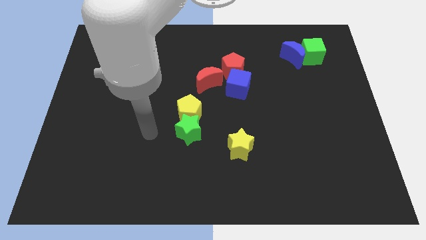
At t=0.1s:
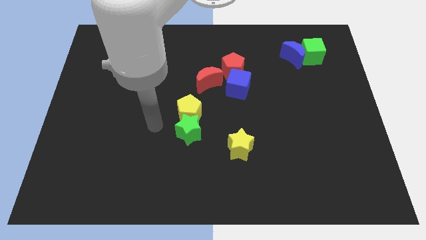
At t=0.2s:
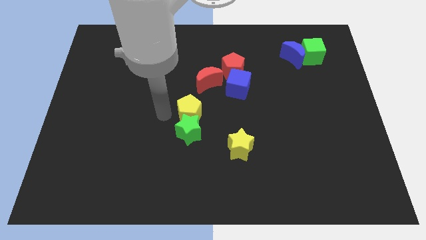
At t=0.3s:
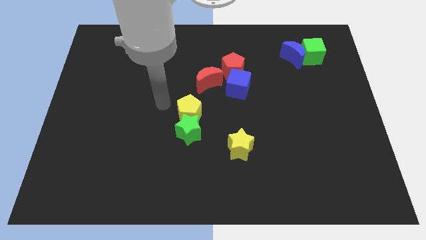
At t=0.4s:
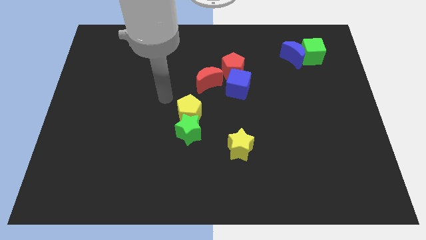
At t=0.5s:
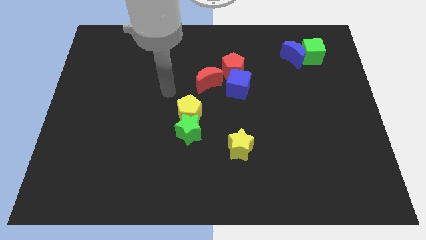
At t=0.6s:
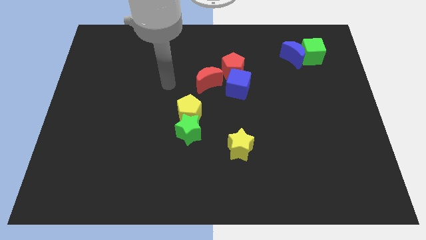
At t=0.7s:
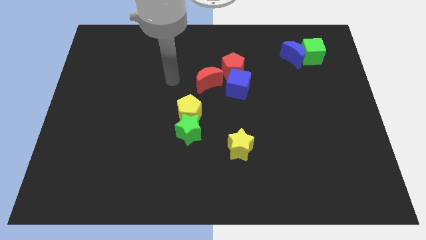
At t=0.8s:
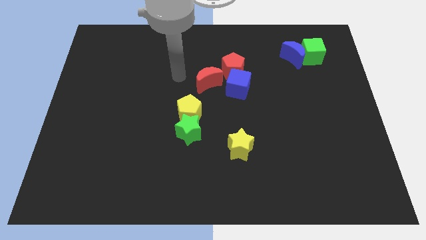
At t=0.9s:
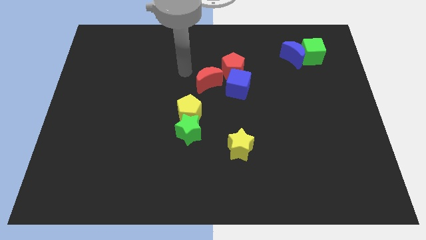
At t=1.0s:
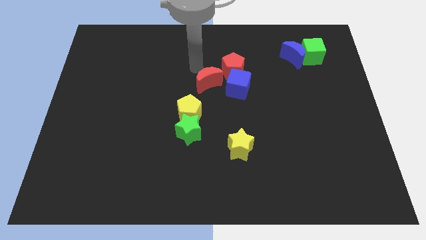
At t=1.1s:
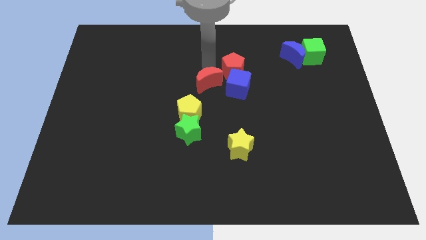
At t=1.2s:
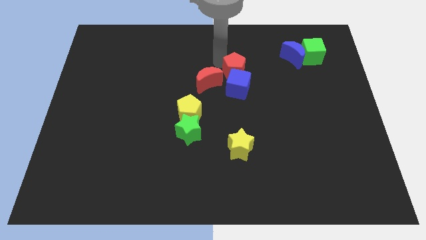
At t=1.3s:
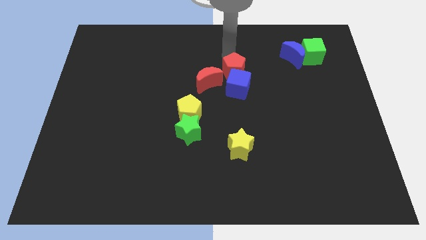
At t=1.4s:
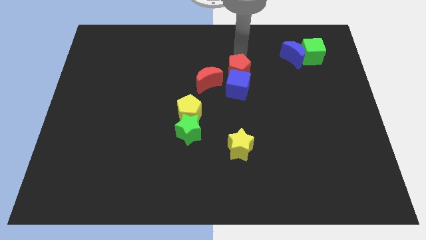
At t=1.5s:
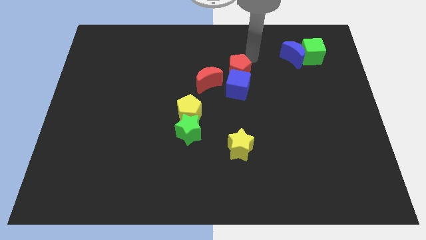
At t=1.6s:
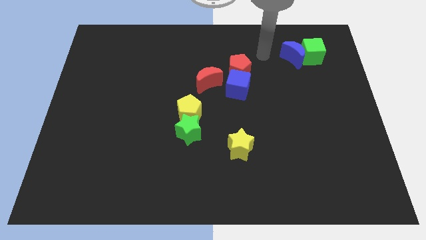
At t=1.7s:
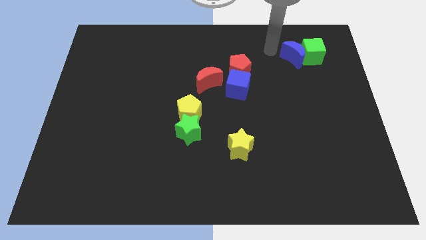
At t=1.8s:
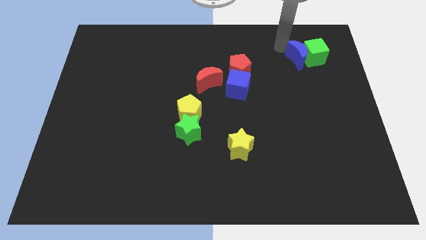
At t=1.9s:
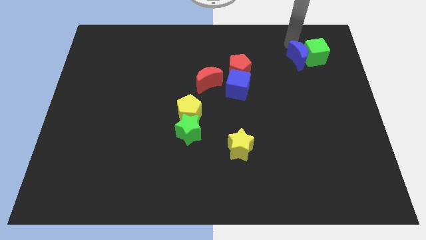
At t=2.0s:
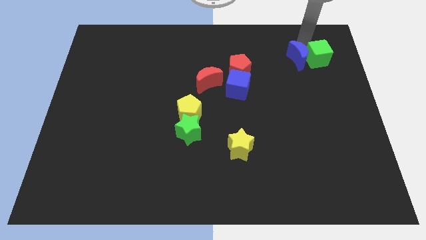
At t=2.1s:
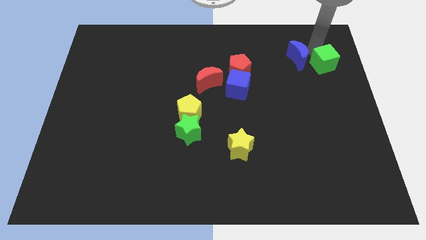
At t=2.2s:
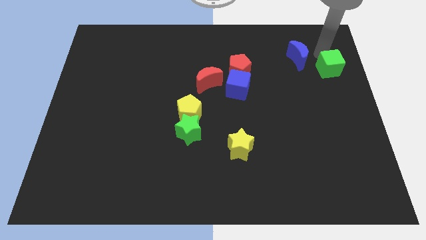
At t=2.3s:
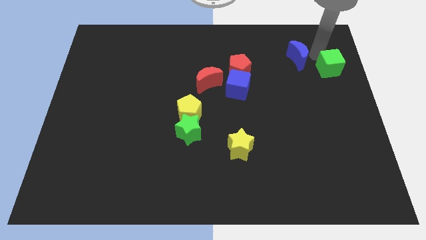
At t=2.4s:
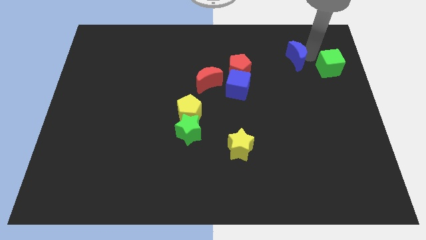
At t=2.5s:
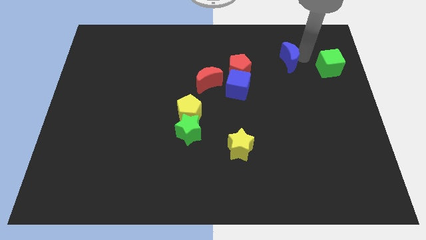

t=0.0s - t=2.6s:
move the blue moon away from the green cube

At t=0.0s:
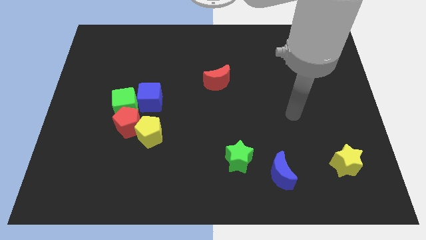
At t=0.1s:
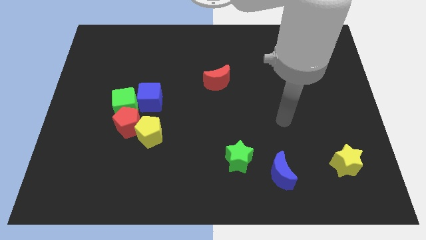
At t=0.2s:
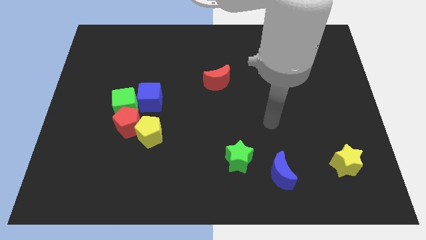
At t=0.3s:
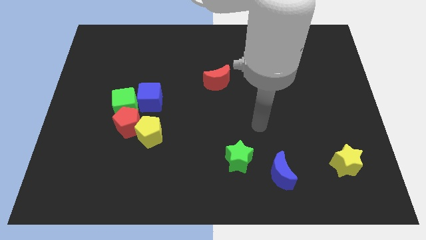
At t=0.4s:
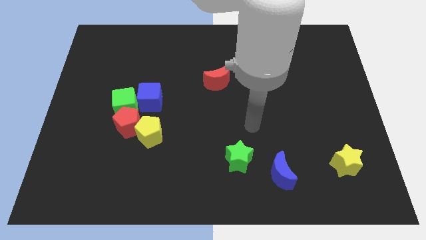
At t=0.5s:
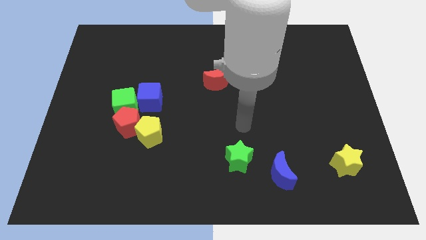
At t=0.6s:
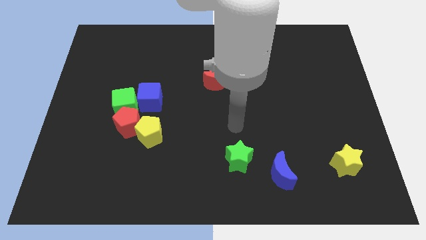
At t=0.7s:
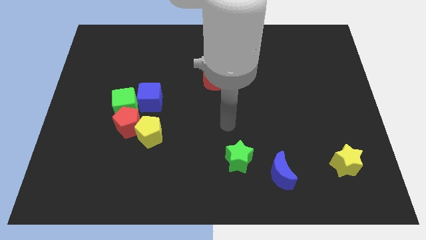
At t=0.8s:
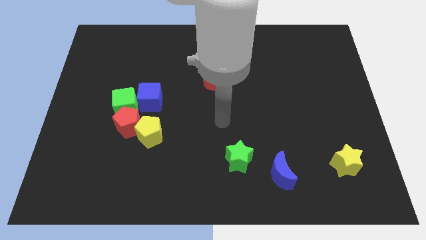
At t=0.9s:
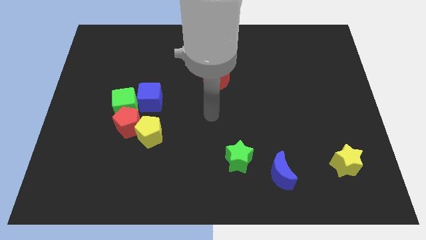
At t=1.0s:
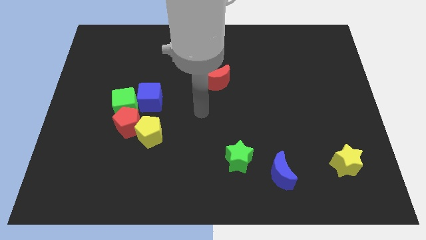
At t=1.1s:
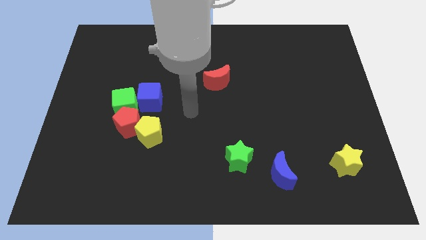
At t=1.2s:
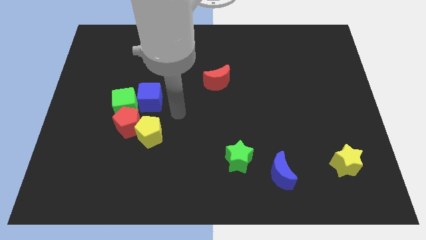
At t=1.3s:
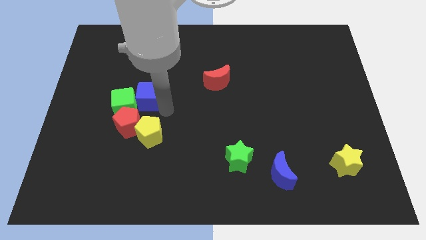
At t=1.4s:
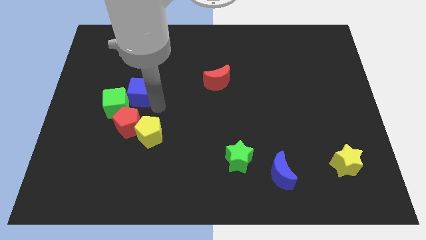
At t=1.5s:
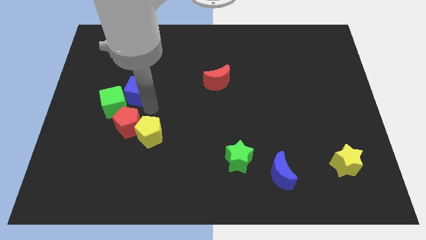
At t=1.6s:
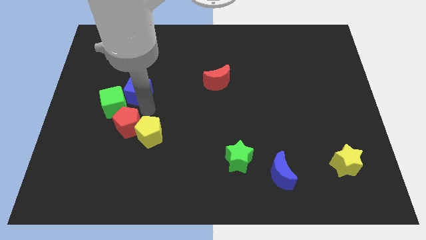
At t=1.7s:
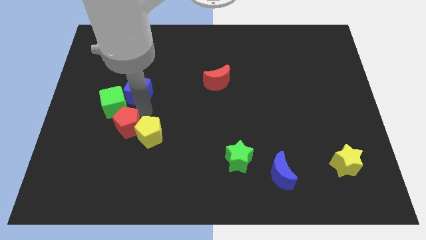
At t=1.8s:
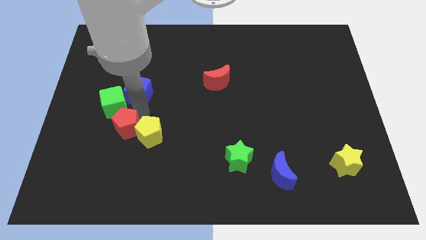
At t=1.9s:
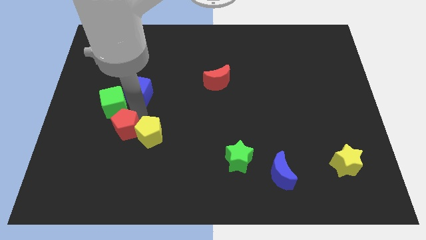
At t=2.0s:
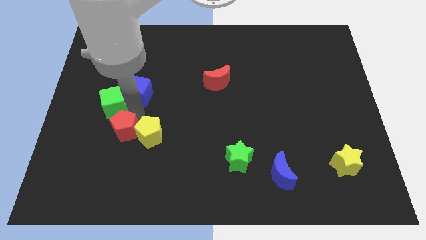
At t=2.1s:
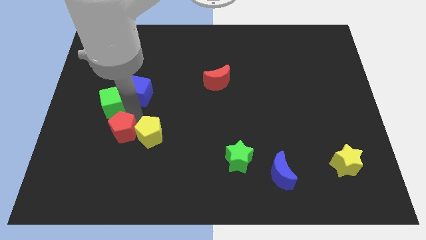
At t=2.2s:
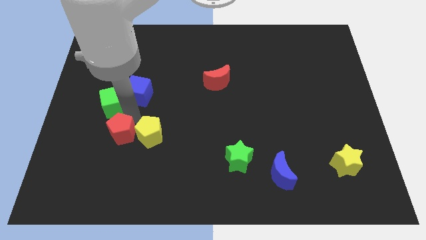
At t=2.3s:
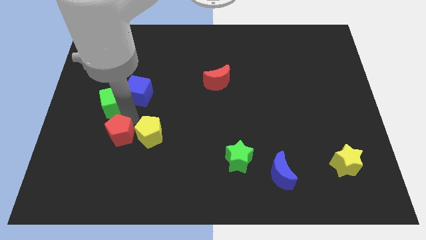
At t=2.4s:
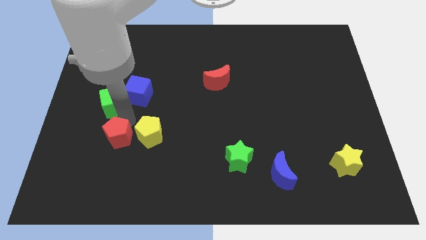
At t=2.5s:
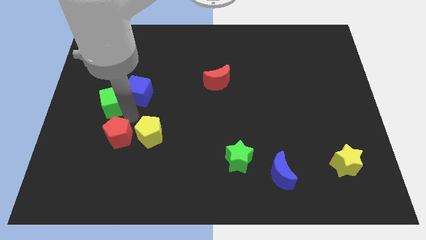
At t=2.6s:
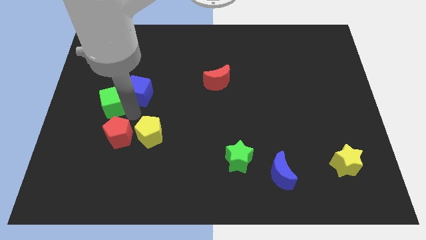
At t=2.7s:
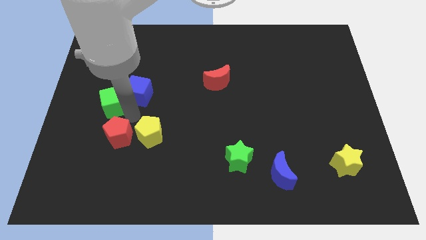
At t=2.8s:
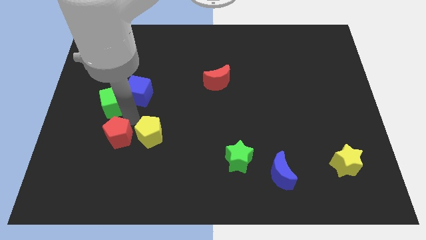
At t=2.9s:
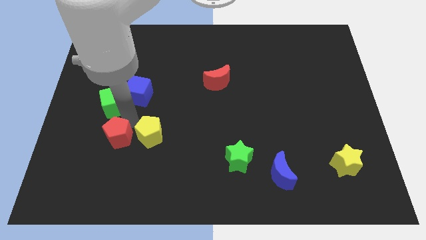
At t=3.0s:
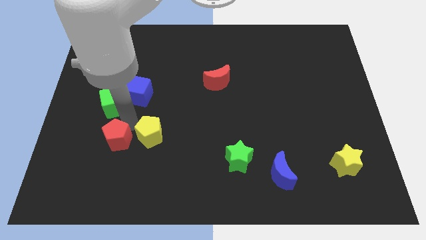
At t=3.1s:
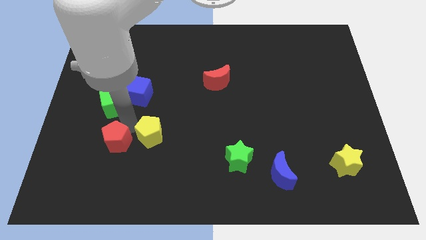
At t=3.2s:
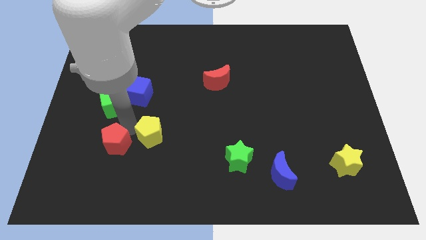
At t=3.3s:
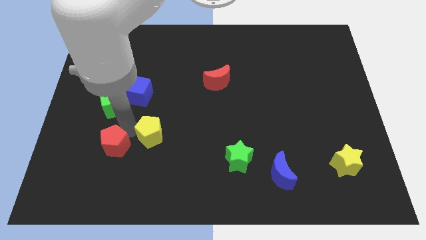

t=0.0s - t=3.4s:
separate the red pentagon from the yellow pentagon, green cube, and blue cube

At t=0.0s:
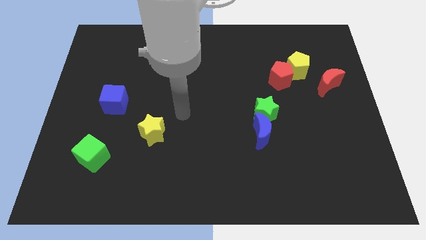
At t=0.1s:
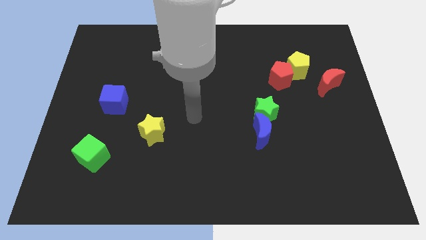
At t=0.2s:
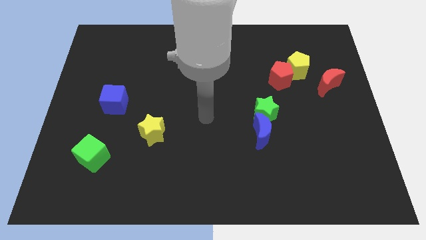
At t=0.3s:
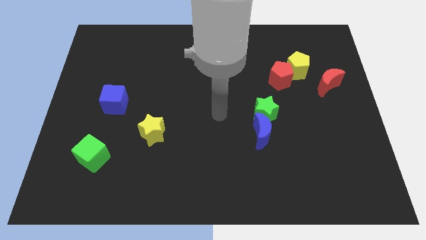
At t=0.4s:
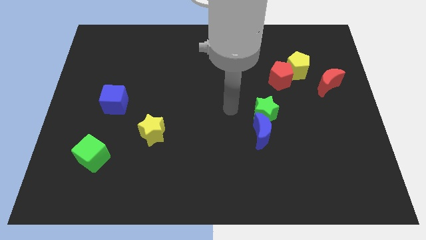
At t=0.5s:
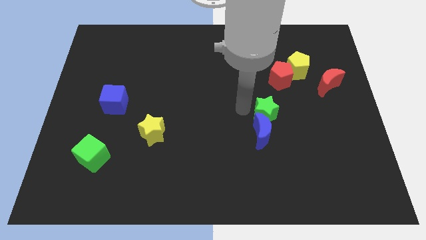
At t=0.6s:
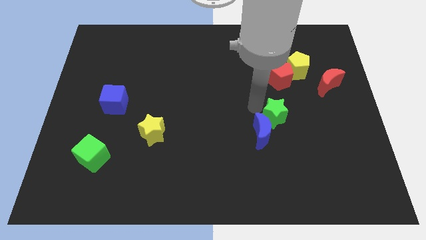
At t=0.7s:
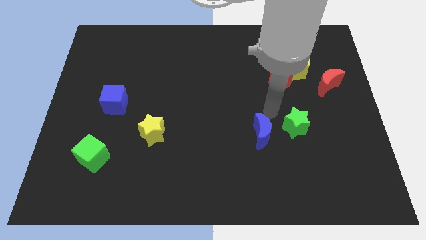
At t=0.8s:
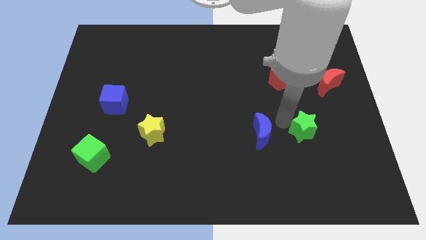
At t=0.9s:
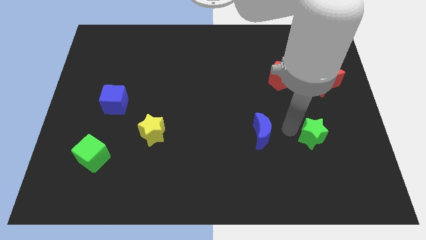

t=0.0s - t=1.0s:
move the blue moon away from the green star

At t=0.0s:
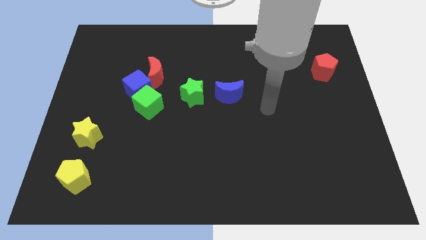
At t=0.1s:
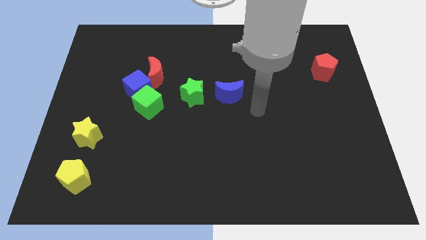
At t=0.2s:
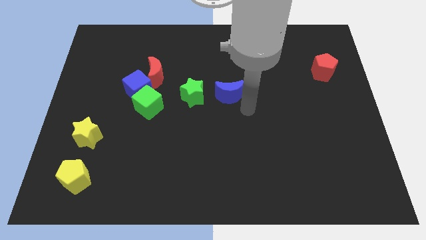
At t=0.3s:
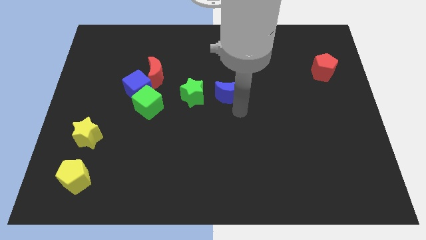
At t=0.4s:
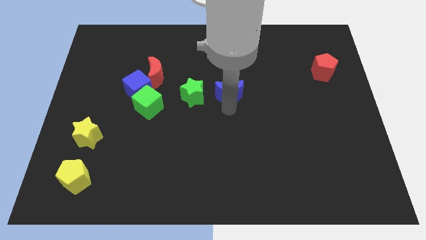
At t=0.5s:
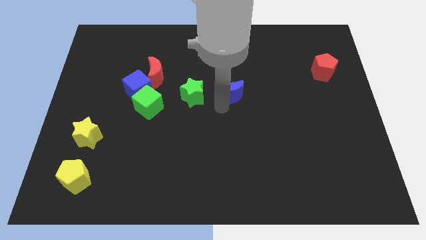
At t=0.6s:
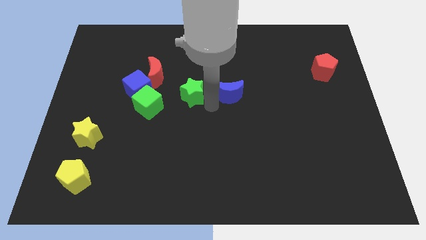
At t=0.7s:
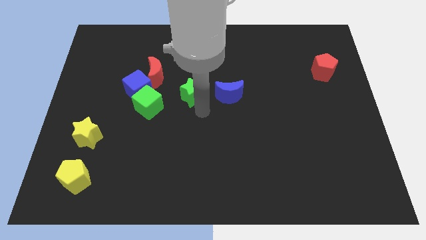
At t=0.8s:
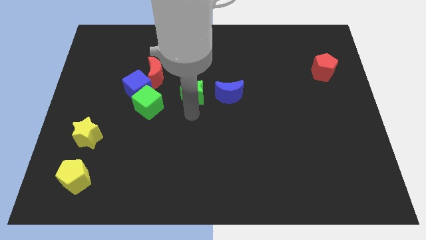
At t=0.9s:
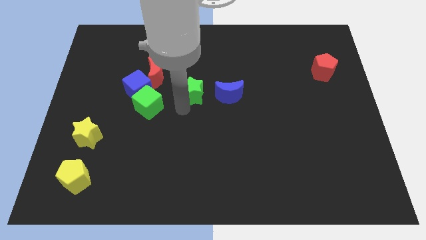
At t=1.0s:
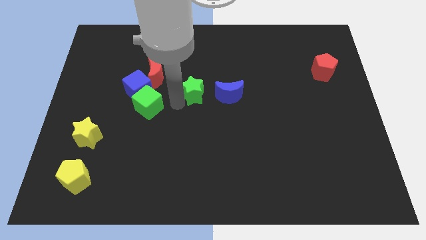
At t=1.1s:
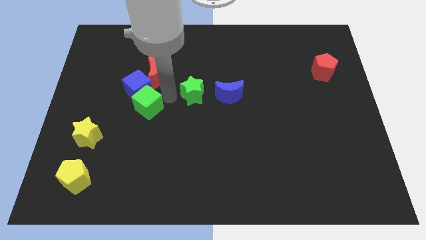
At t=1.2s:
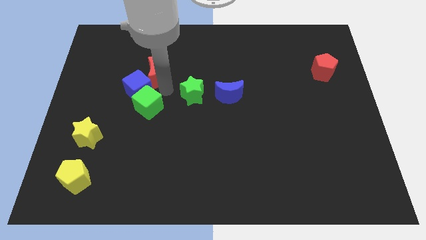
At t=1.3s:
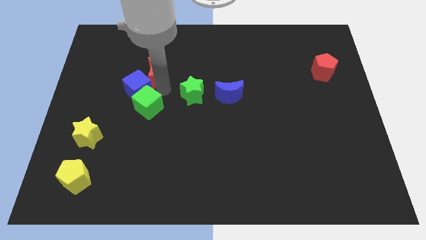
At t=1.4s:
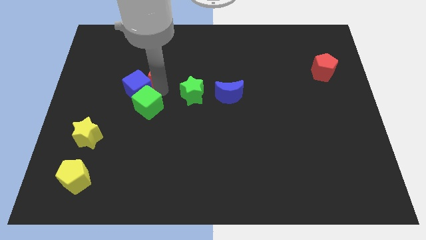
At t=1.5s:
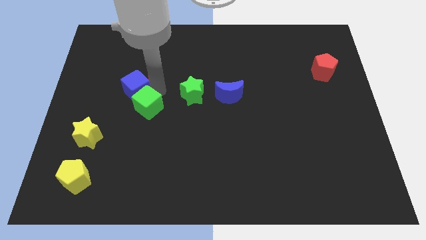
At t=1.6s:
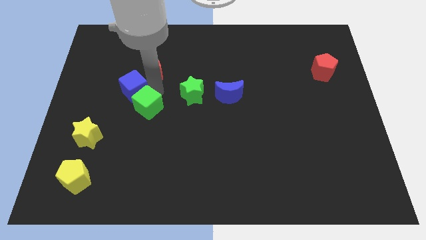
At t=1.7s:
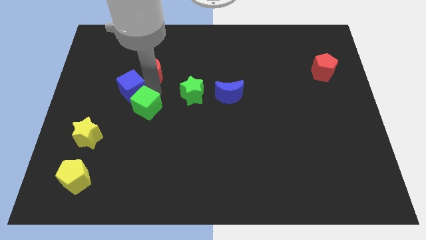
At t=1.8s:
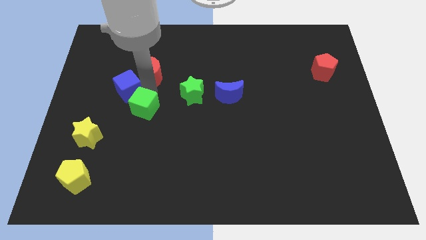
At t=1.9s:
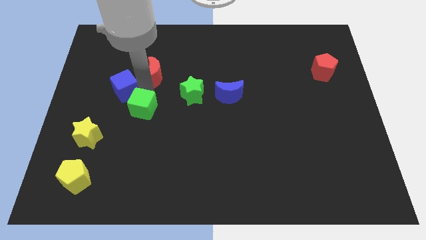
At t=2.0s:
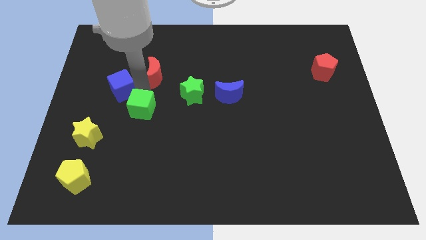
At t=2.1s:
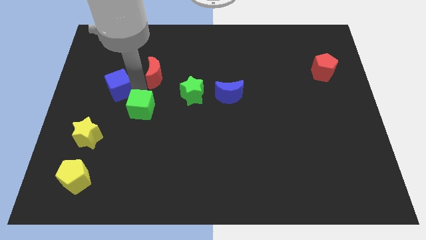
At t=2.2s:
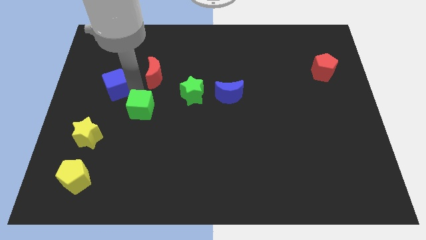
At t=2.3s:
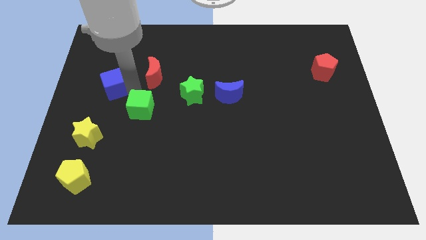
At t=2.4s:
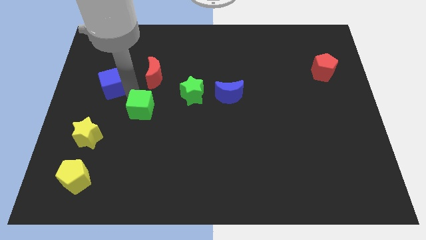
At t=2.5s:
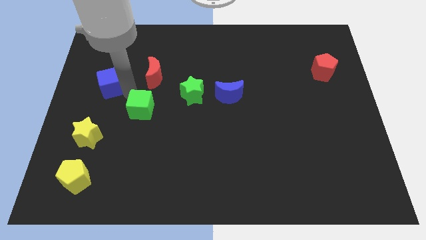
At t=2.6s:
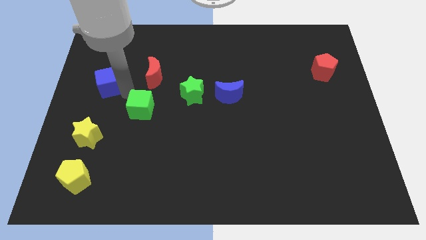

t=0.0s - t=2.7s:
separate the blue cube from the green cube and red moon
